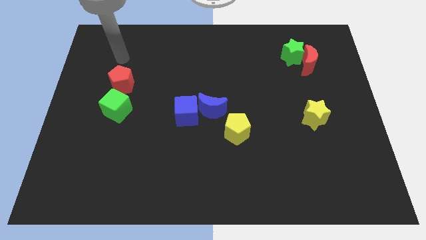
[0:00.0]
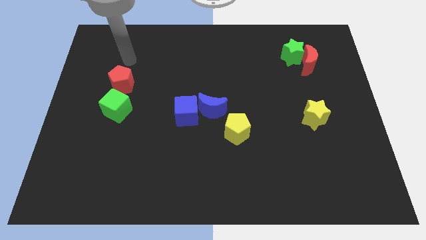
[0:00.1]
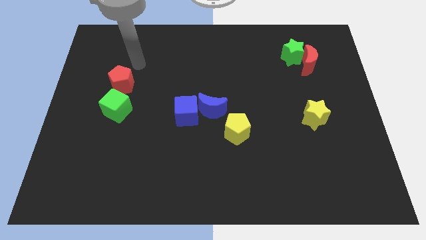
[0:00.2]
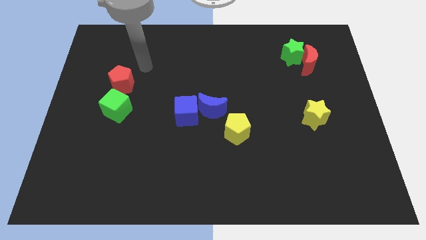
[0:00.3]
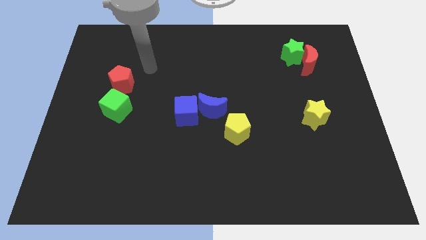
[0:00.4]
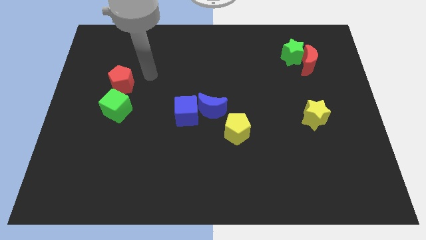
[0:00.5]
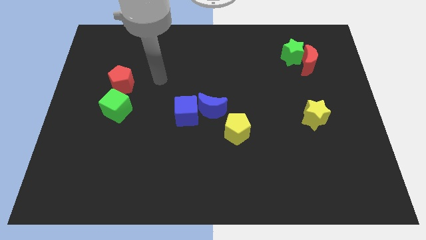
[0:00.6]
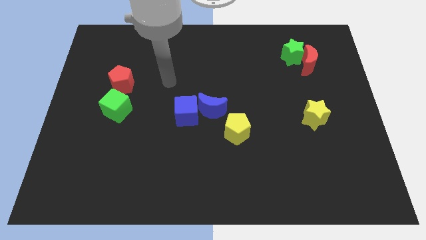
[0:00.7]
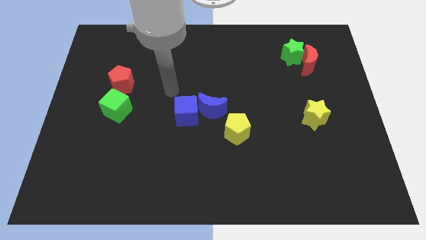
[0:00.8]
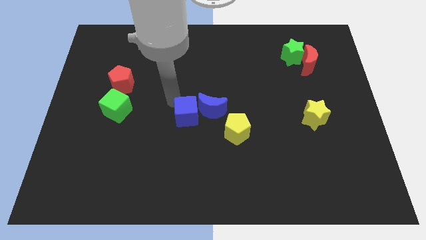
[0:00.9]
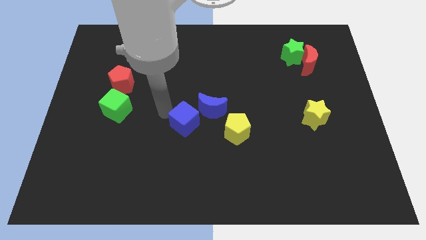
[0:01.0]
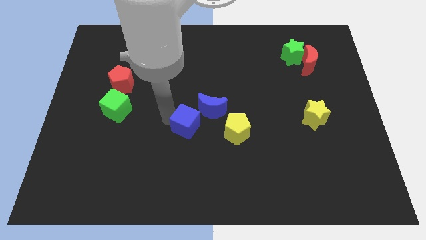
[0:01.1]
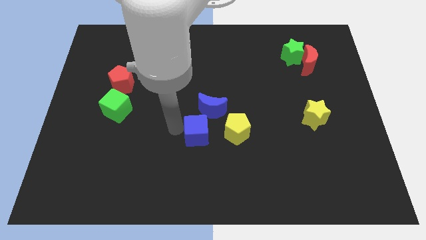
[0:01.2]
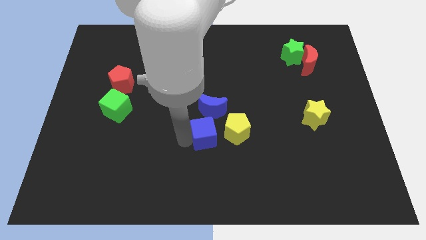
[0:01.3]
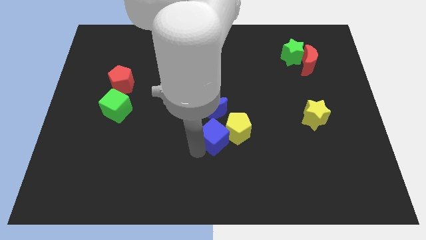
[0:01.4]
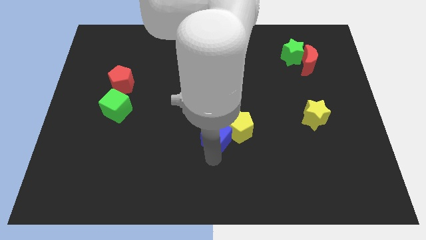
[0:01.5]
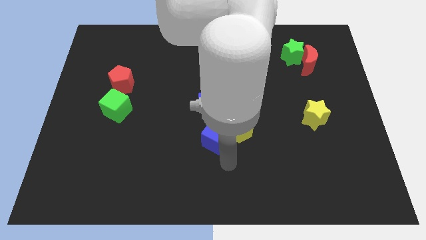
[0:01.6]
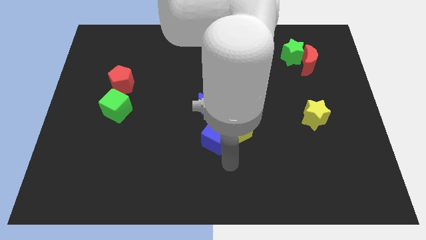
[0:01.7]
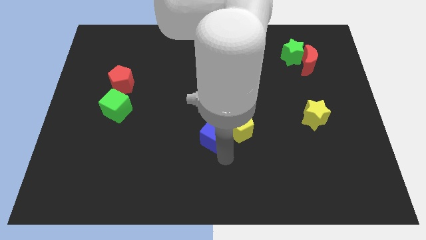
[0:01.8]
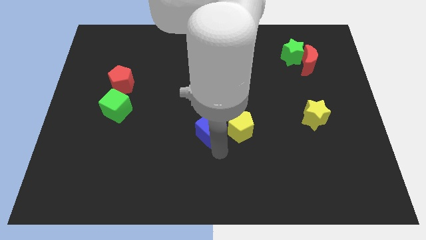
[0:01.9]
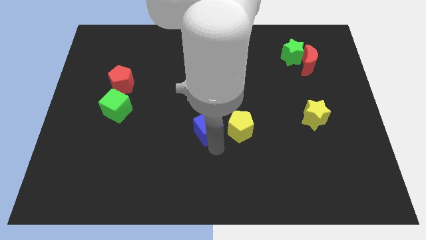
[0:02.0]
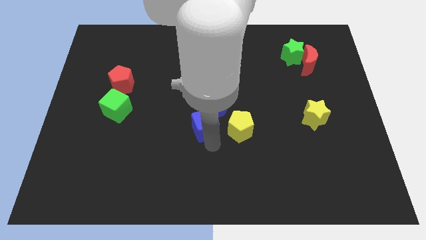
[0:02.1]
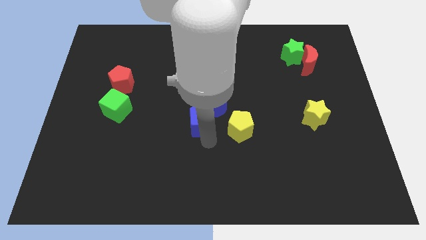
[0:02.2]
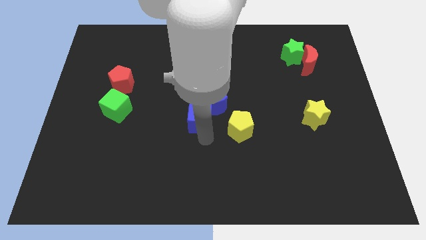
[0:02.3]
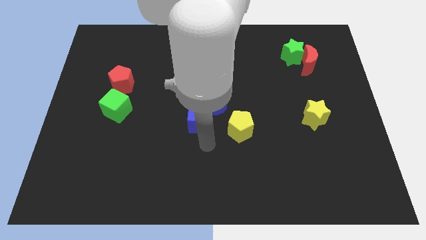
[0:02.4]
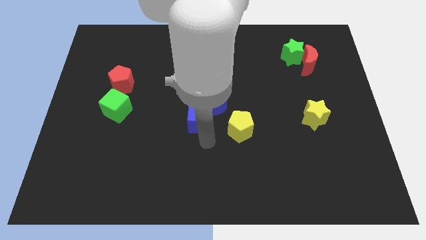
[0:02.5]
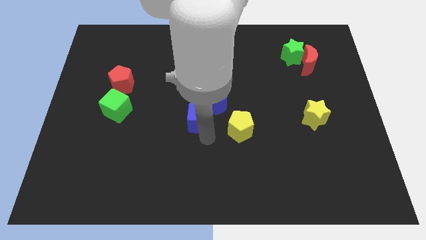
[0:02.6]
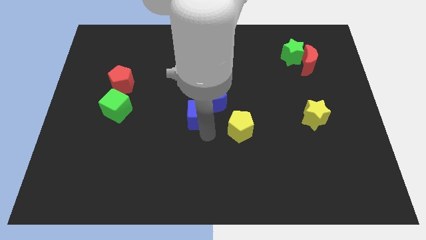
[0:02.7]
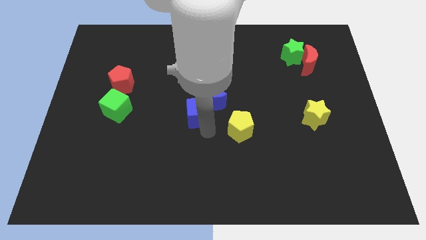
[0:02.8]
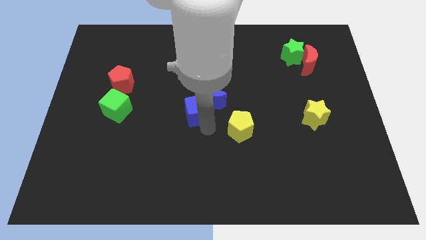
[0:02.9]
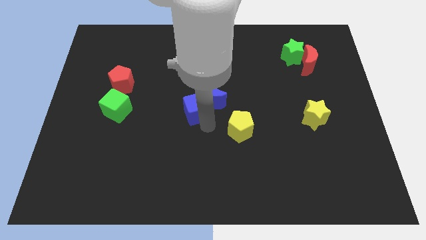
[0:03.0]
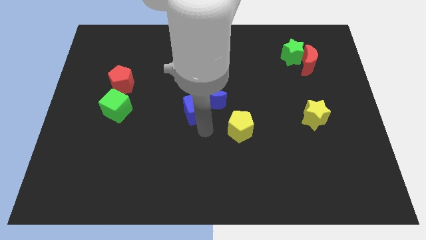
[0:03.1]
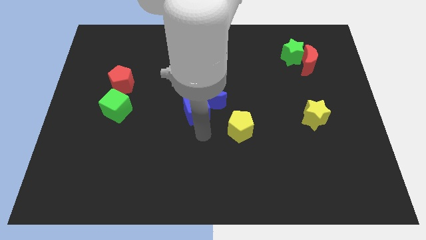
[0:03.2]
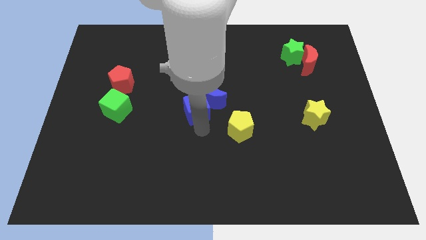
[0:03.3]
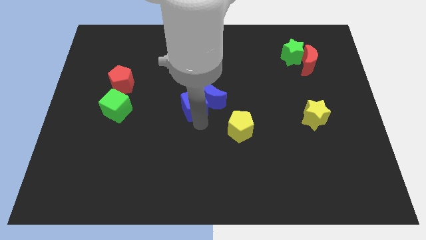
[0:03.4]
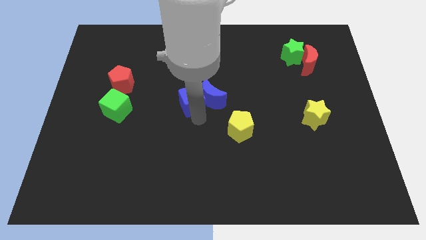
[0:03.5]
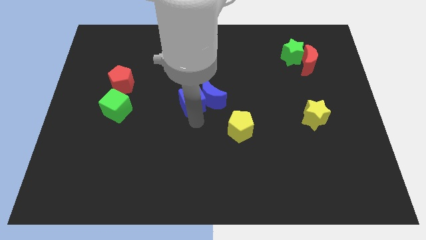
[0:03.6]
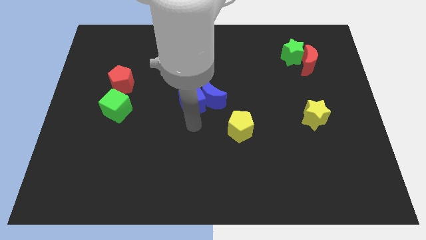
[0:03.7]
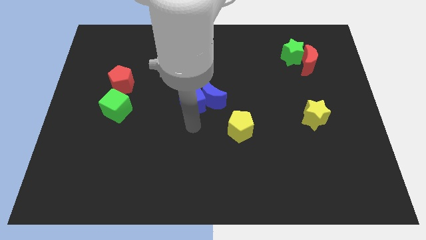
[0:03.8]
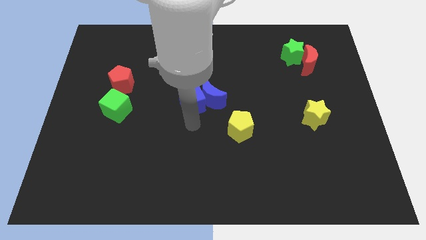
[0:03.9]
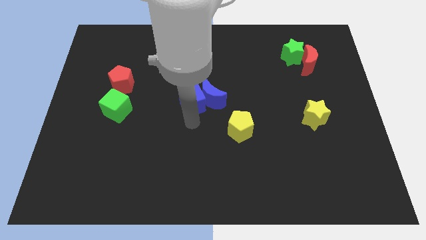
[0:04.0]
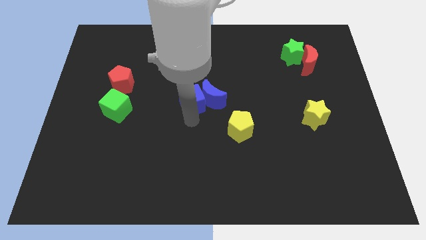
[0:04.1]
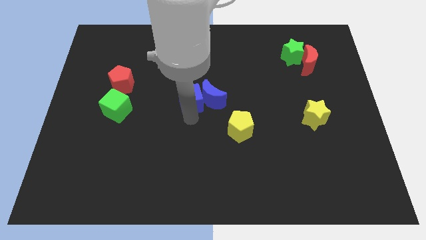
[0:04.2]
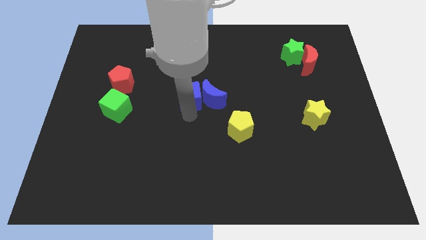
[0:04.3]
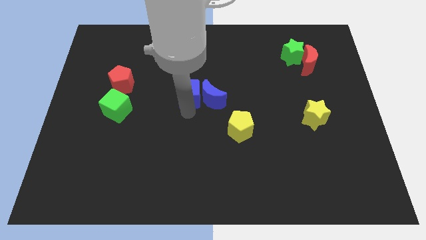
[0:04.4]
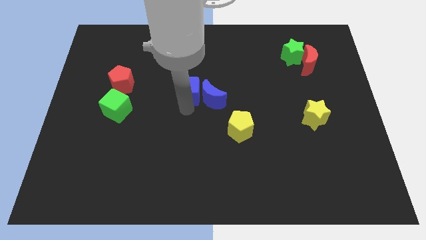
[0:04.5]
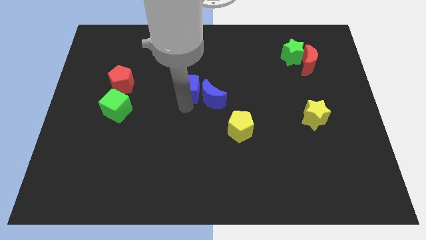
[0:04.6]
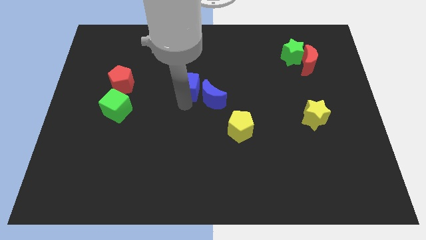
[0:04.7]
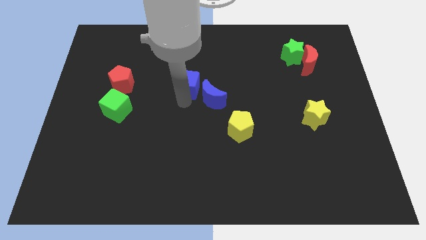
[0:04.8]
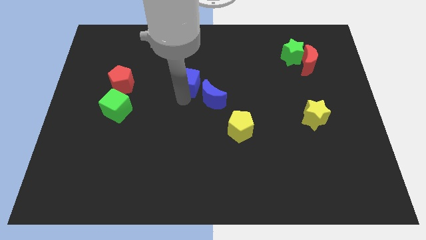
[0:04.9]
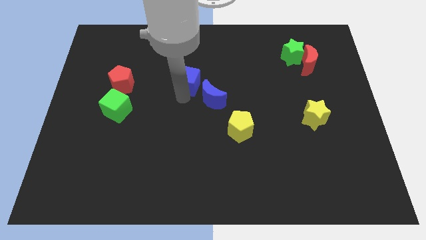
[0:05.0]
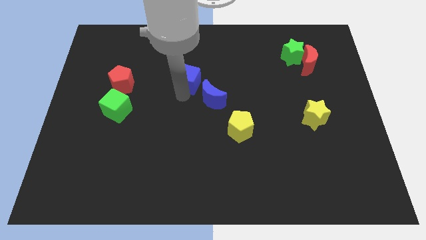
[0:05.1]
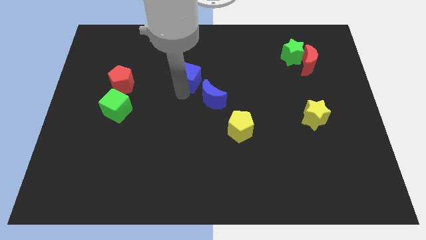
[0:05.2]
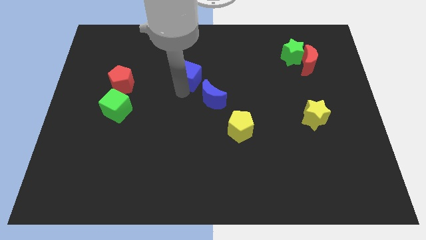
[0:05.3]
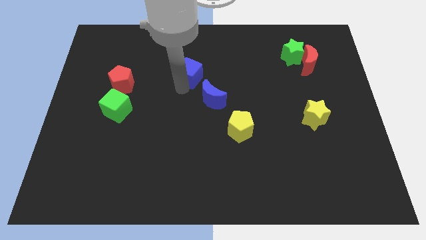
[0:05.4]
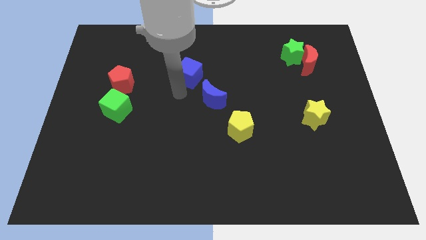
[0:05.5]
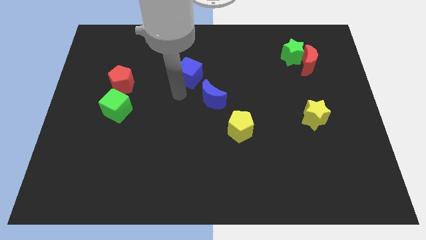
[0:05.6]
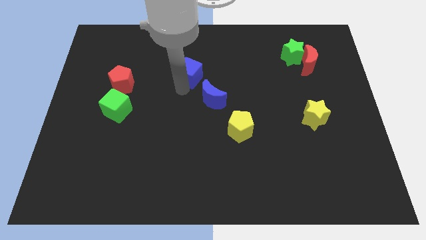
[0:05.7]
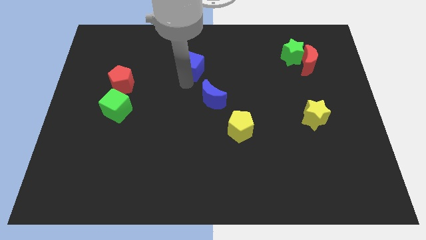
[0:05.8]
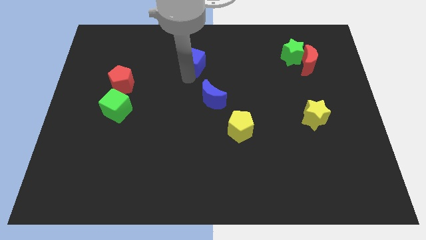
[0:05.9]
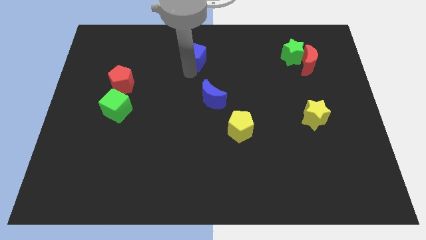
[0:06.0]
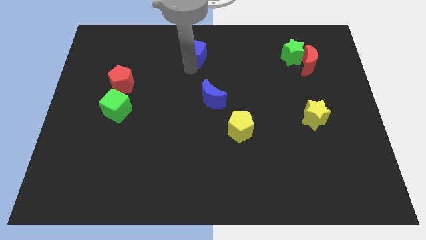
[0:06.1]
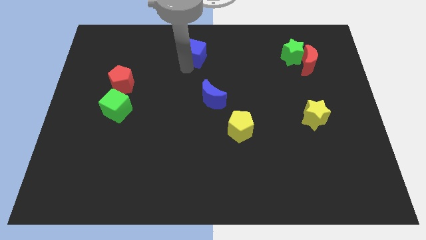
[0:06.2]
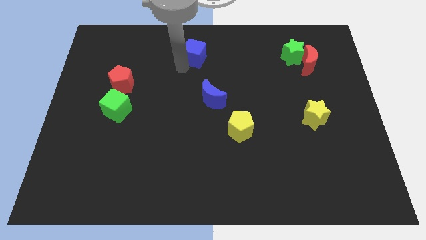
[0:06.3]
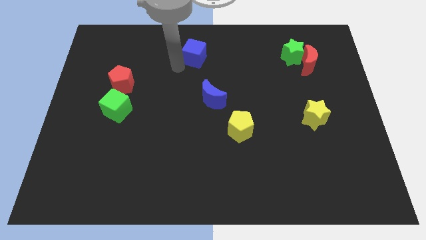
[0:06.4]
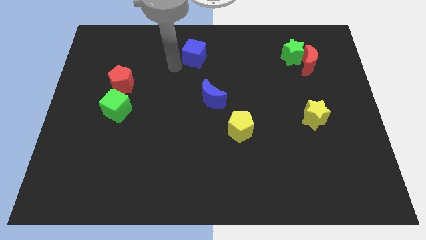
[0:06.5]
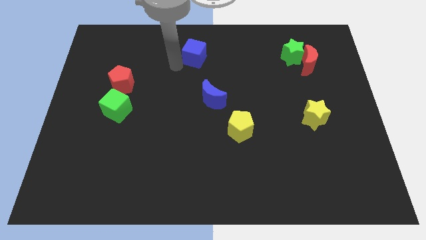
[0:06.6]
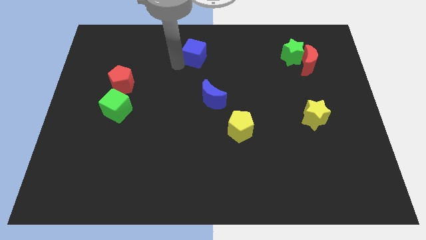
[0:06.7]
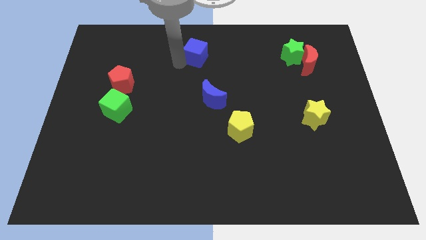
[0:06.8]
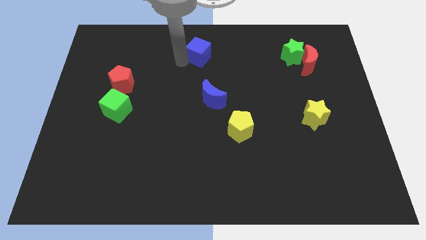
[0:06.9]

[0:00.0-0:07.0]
move the blue cube to the top
